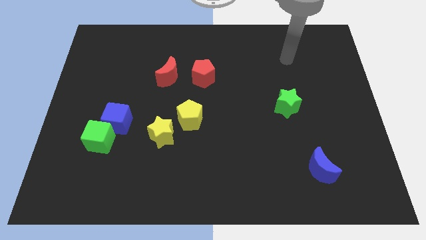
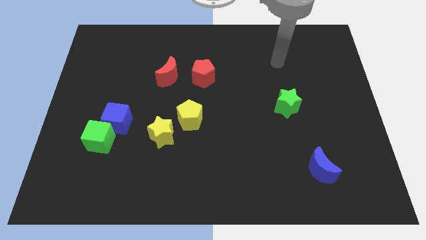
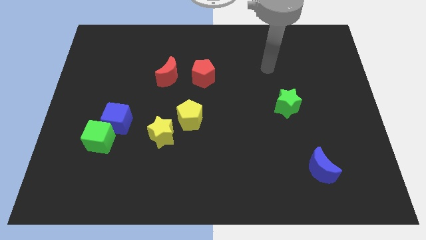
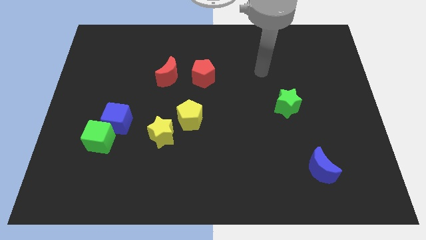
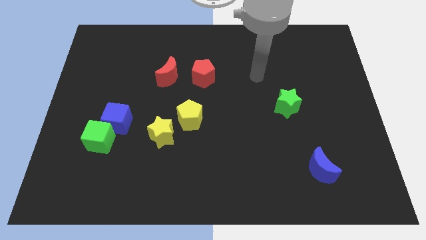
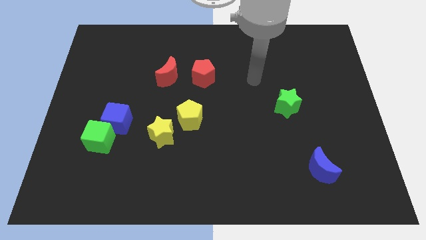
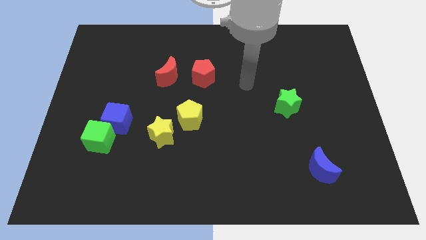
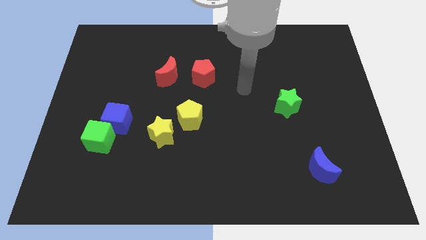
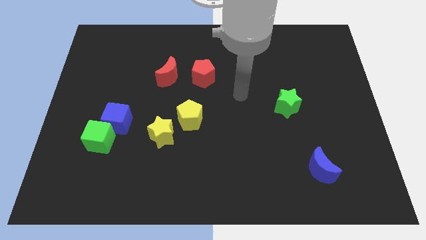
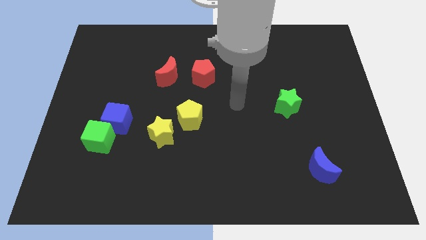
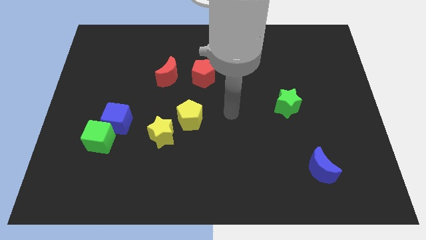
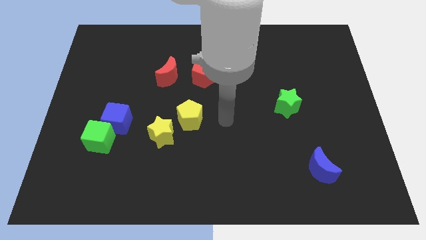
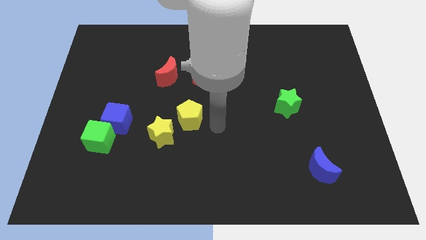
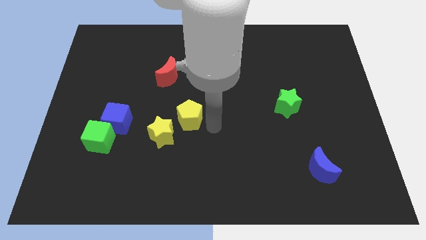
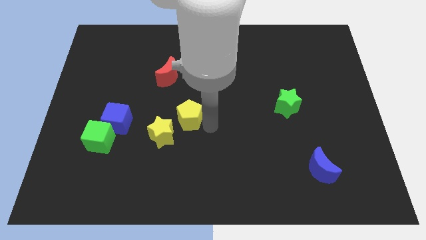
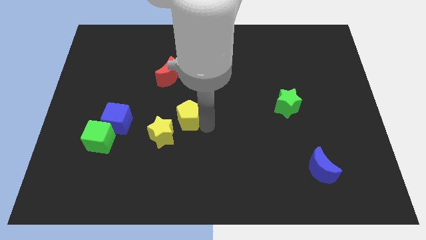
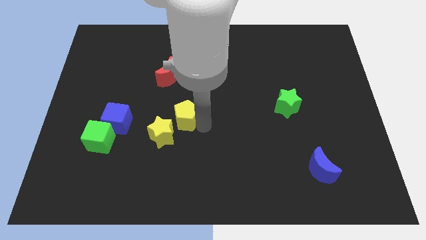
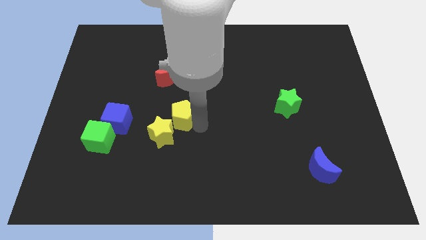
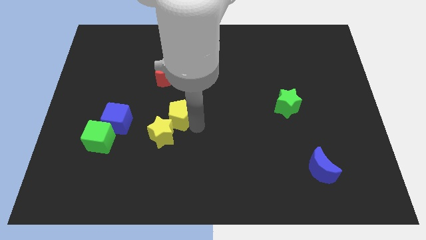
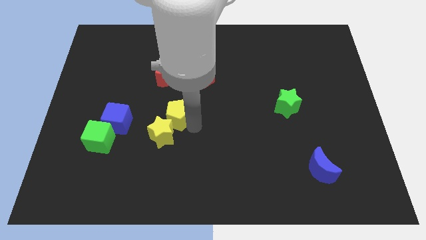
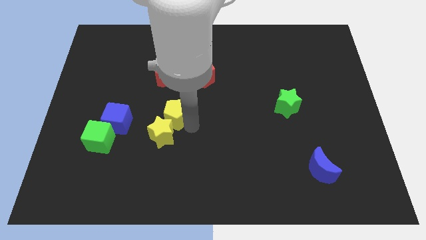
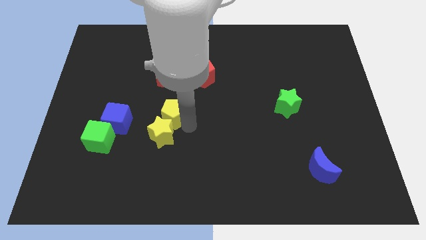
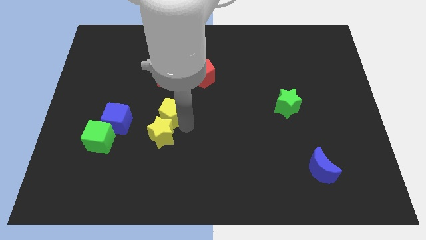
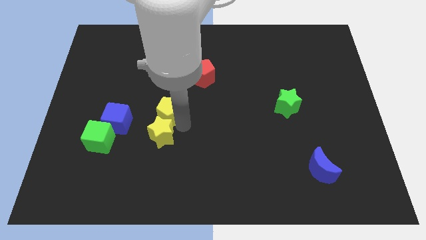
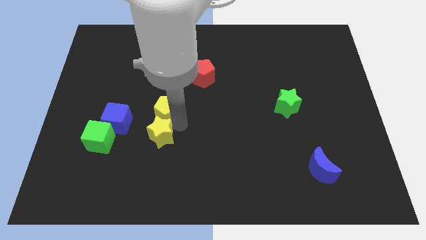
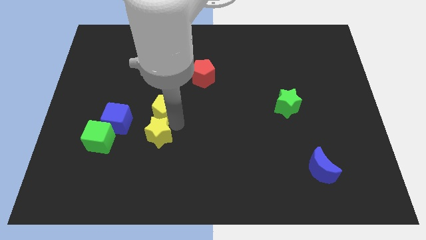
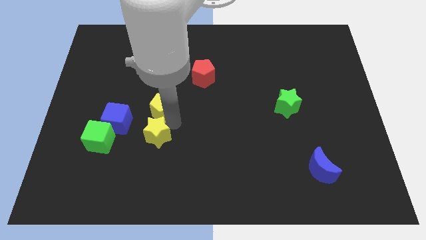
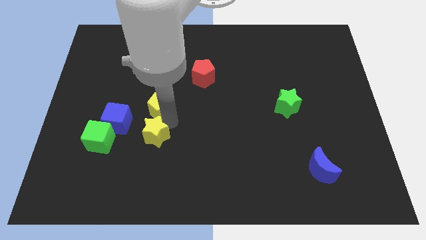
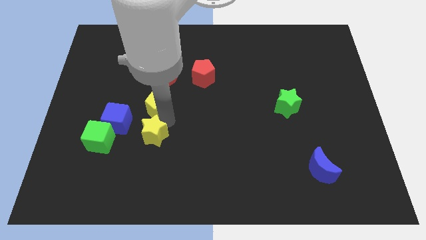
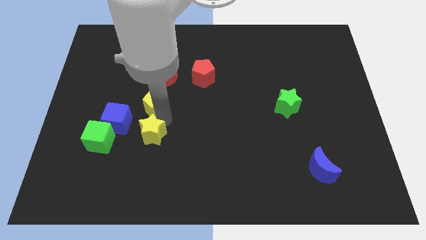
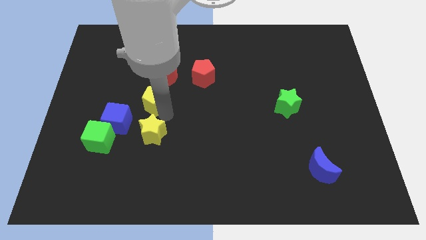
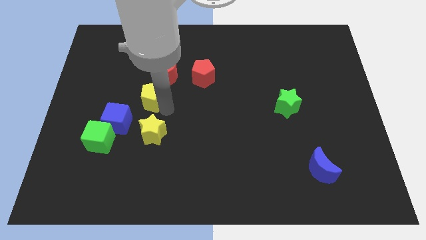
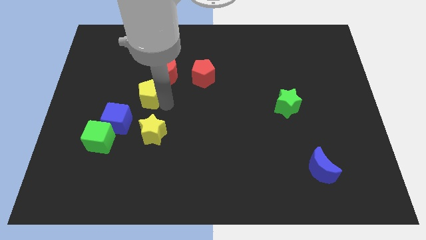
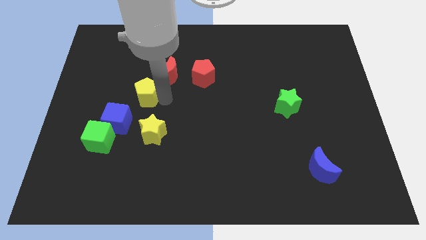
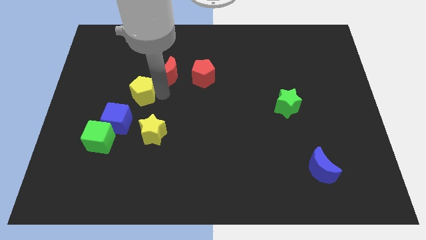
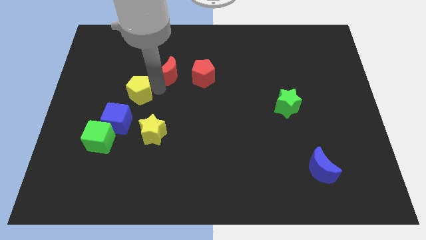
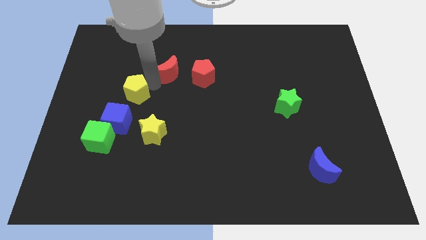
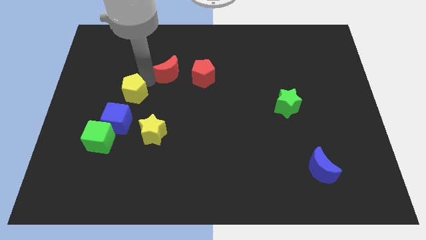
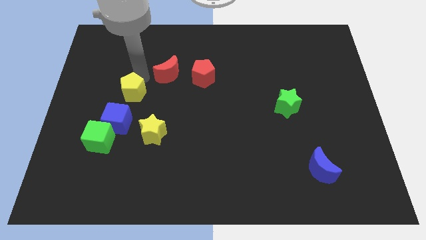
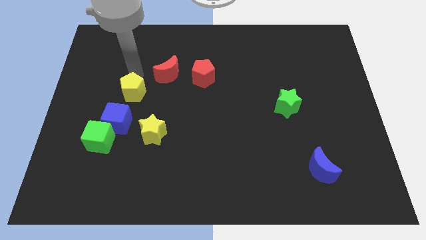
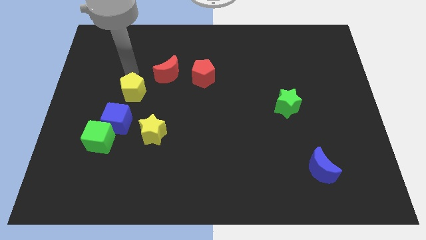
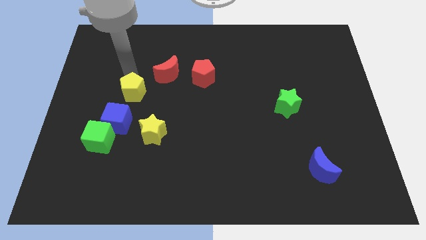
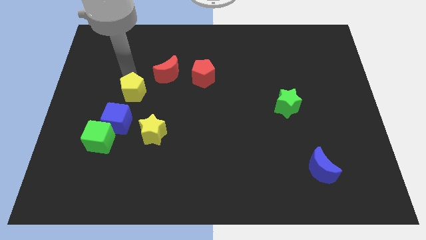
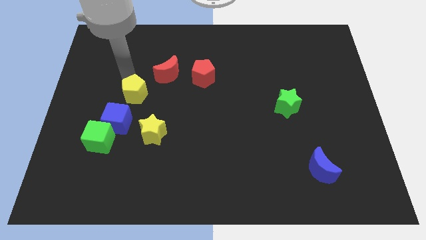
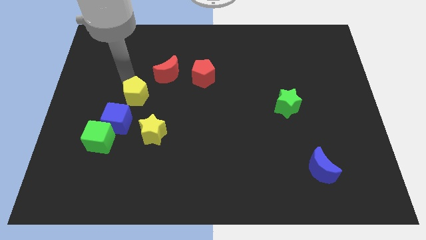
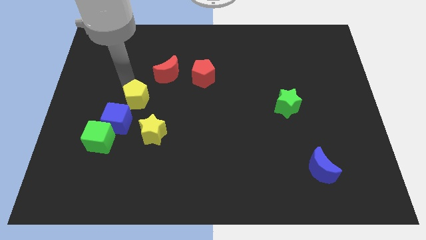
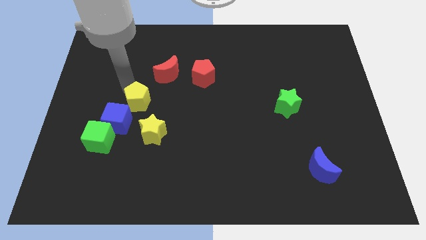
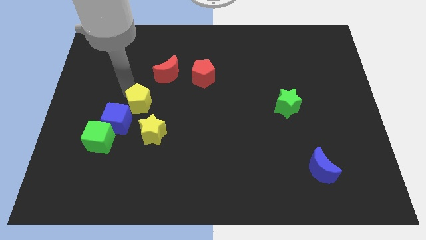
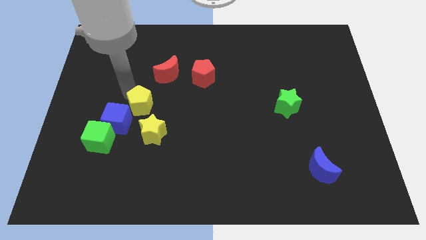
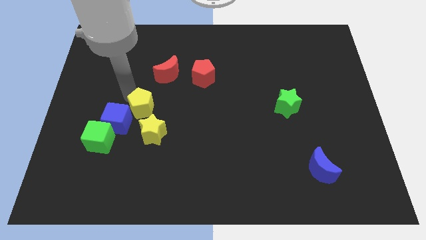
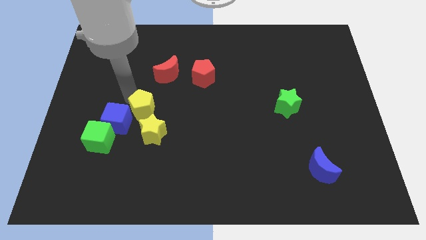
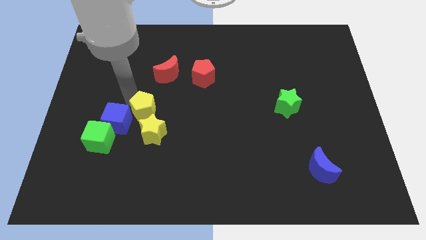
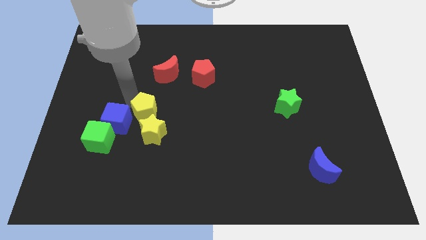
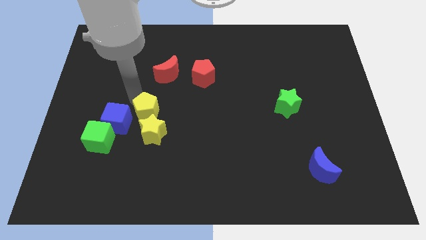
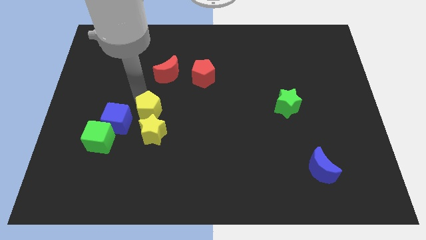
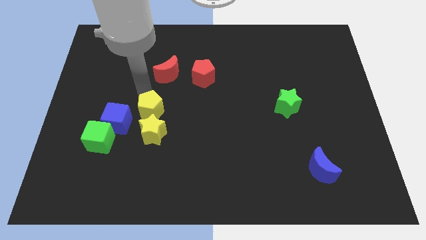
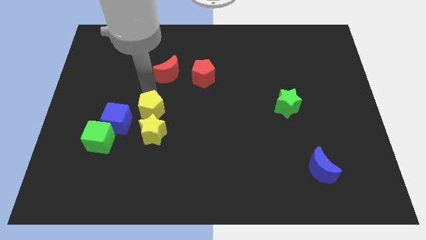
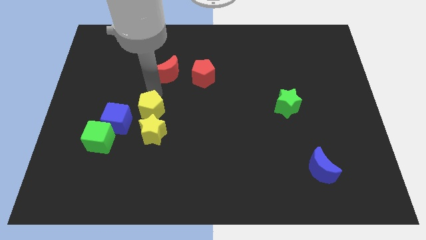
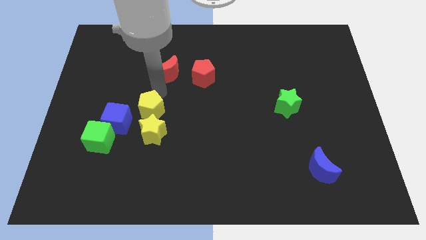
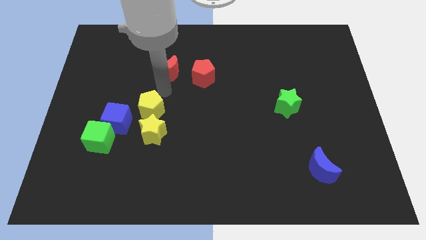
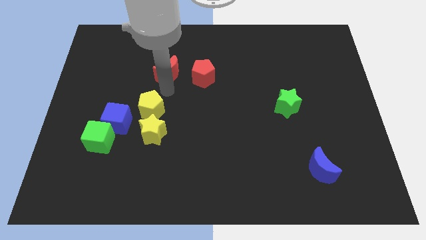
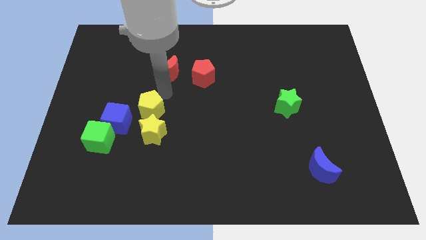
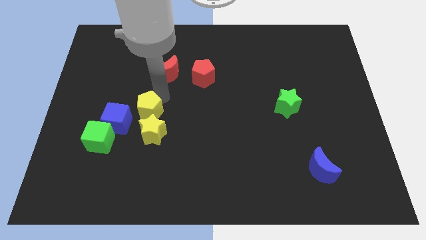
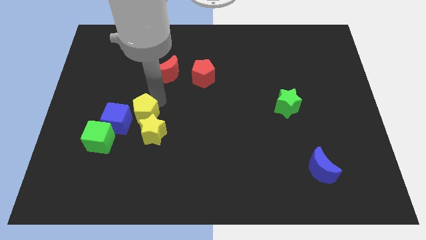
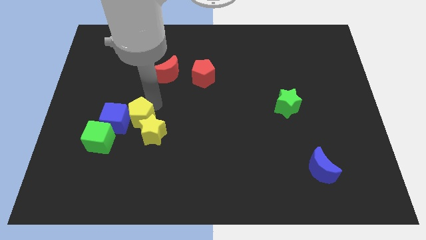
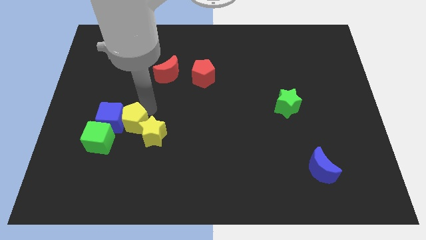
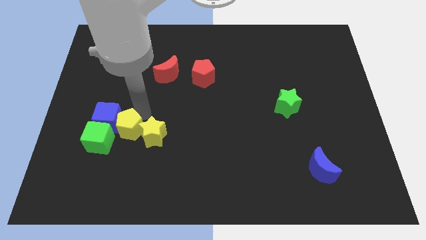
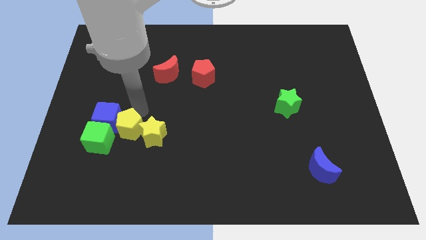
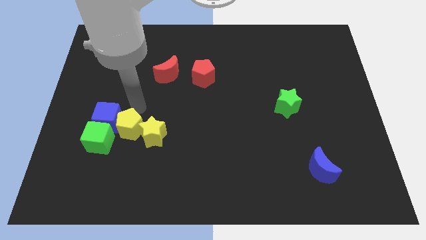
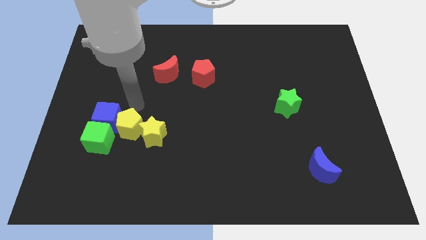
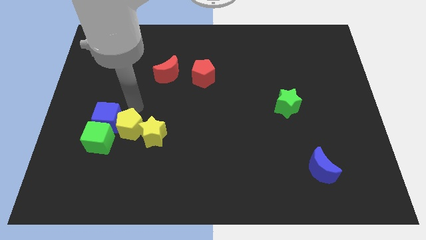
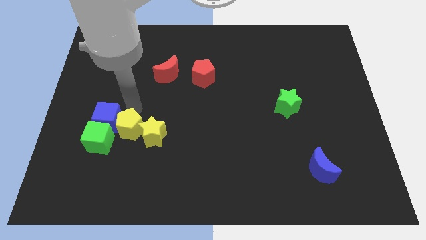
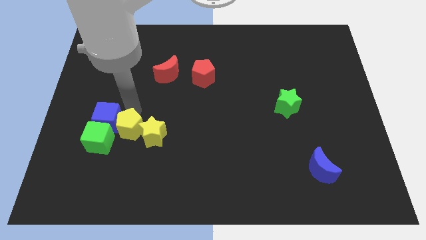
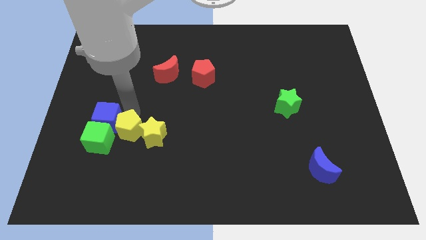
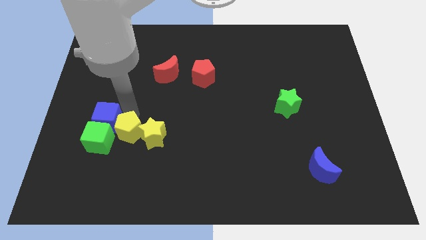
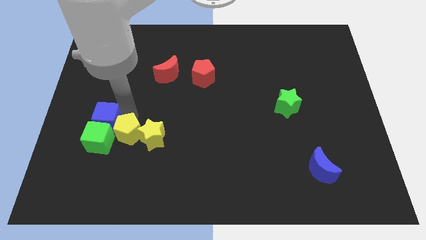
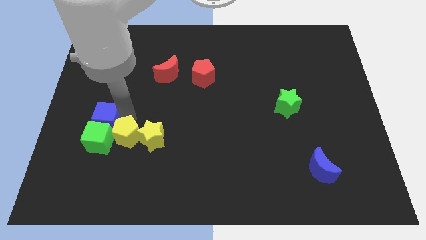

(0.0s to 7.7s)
push the yellow pentagon towards the green cube
